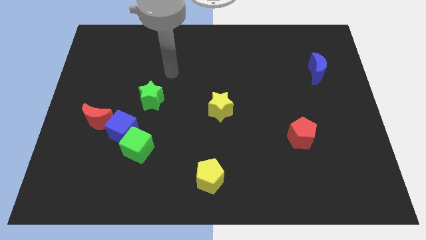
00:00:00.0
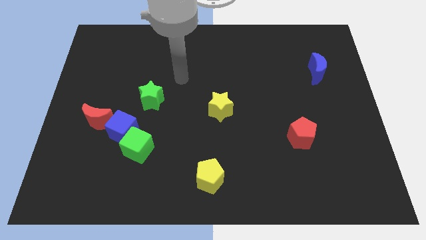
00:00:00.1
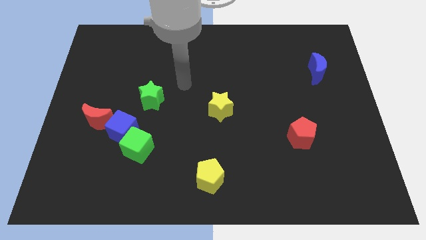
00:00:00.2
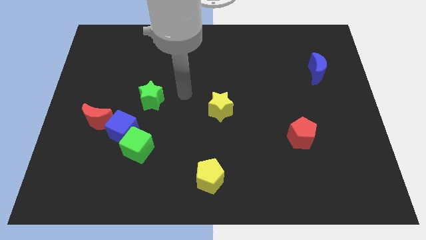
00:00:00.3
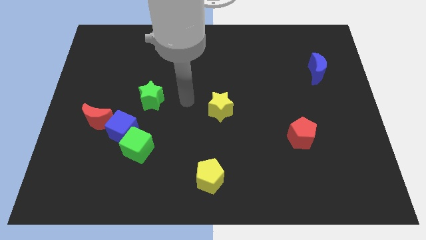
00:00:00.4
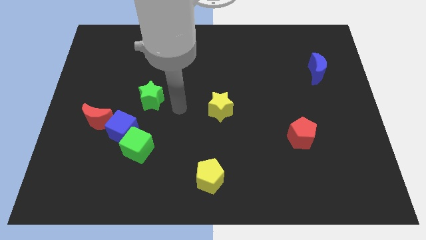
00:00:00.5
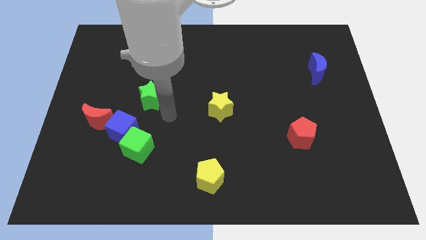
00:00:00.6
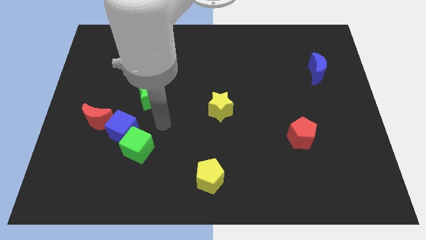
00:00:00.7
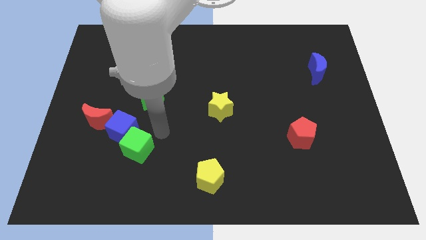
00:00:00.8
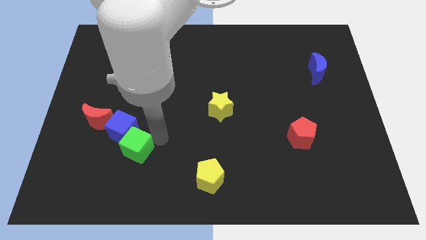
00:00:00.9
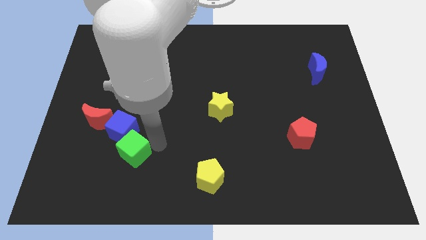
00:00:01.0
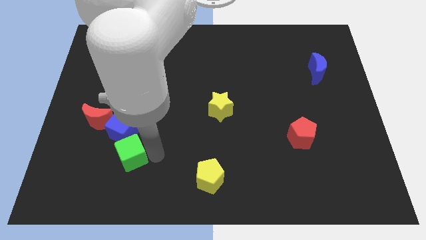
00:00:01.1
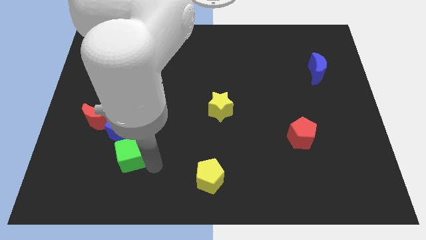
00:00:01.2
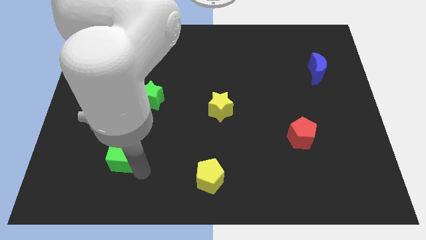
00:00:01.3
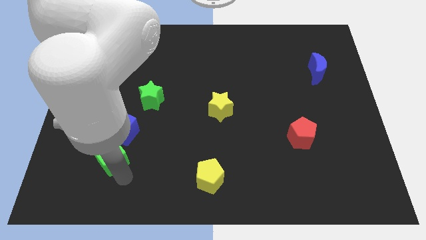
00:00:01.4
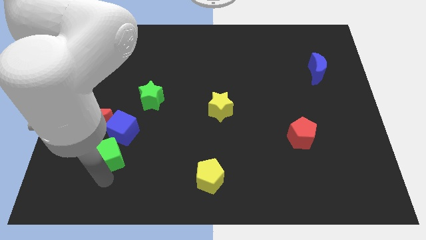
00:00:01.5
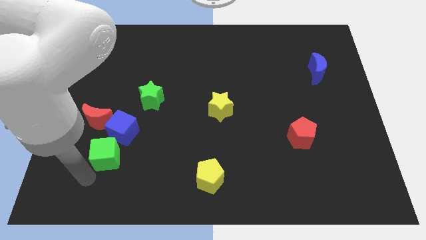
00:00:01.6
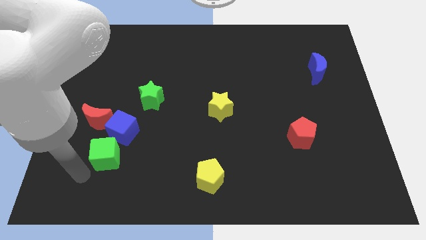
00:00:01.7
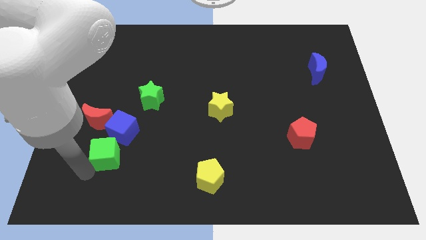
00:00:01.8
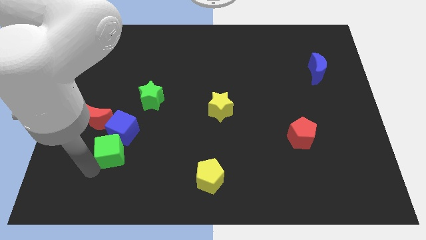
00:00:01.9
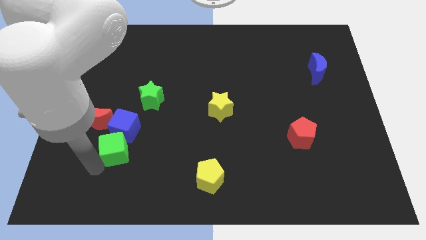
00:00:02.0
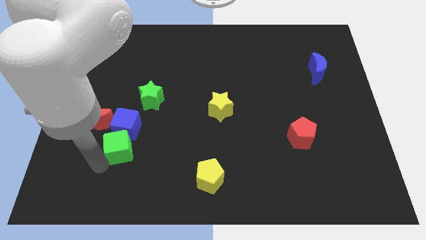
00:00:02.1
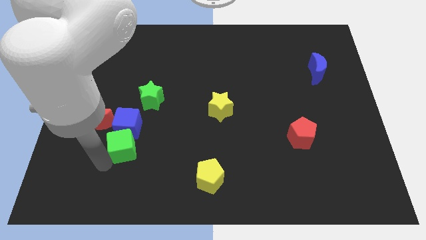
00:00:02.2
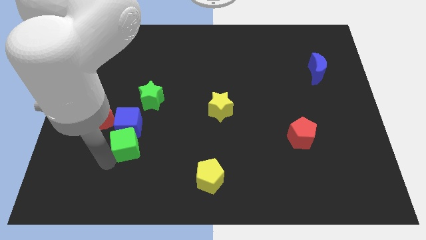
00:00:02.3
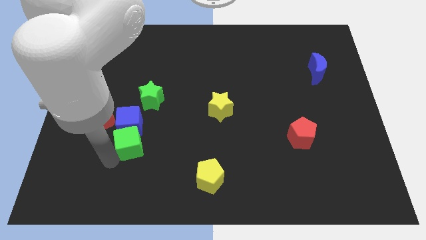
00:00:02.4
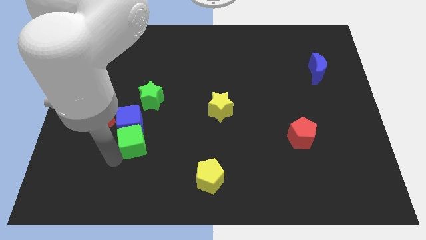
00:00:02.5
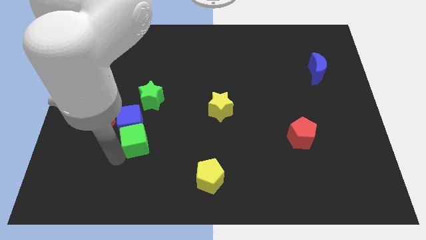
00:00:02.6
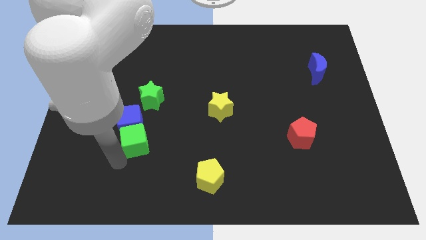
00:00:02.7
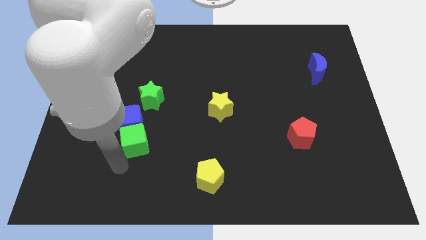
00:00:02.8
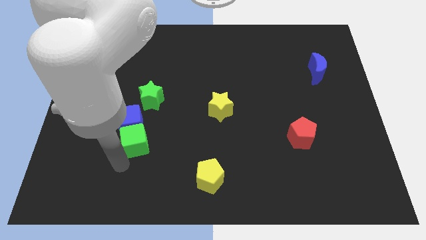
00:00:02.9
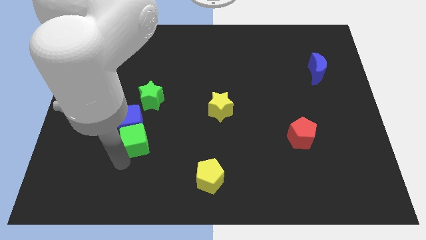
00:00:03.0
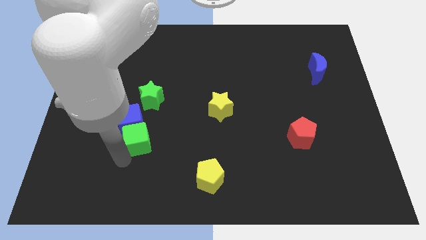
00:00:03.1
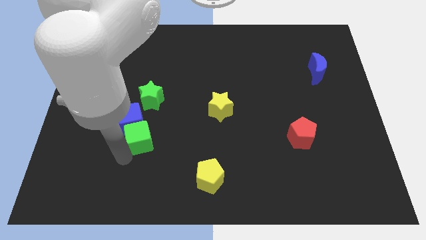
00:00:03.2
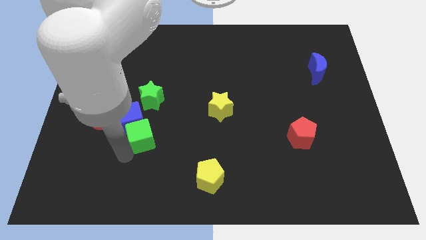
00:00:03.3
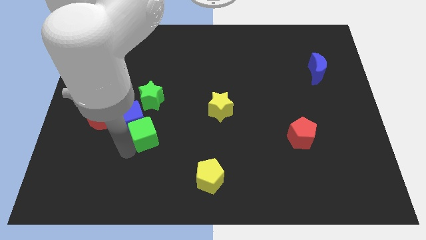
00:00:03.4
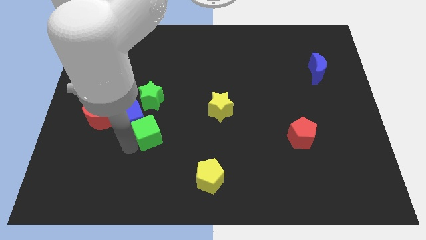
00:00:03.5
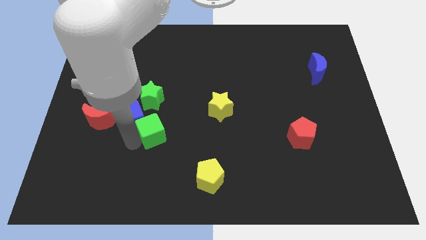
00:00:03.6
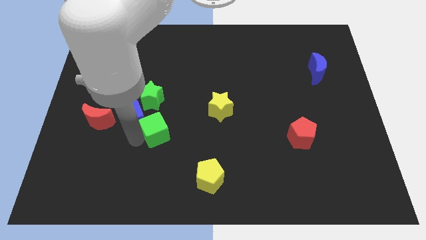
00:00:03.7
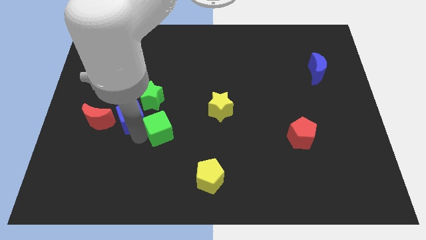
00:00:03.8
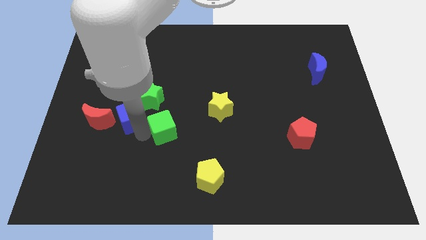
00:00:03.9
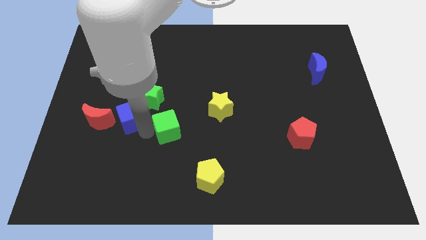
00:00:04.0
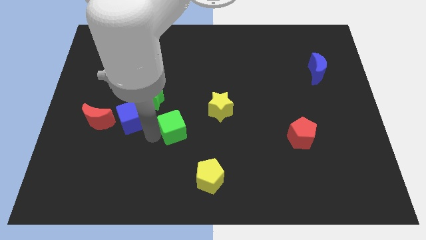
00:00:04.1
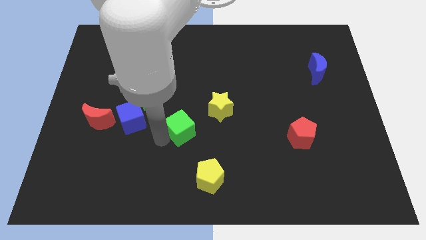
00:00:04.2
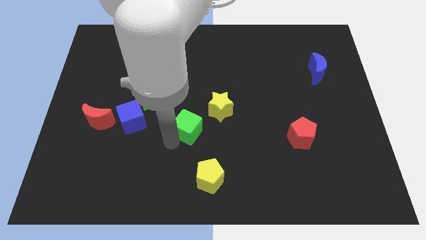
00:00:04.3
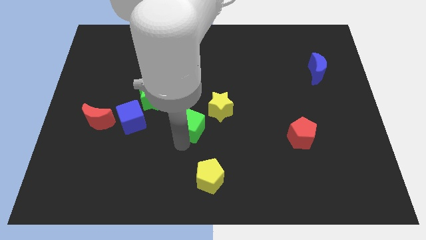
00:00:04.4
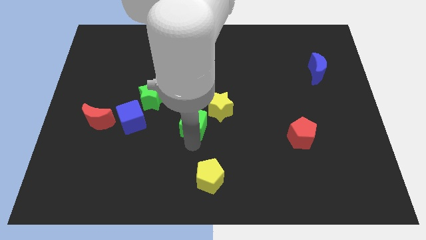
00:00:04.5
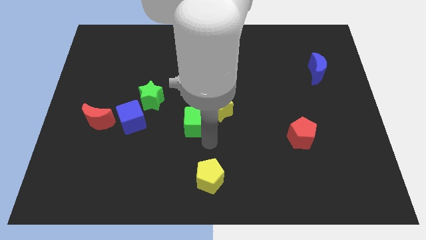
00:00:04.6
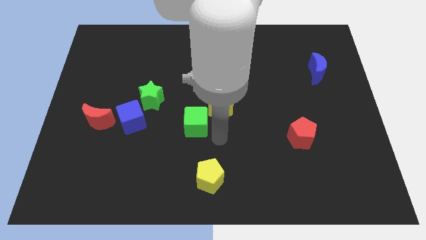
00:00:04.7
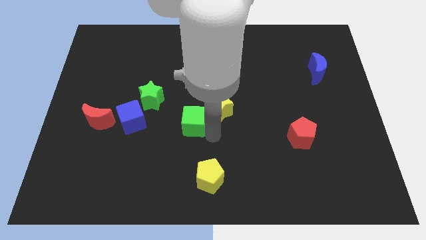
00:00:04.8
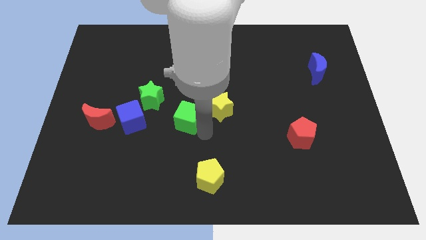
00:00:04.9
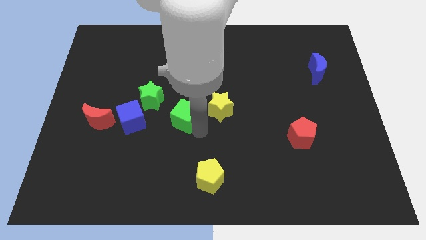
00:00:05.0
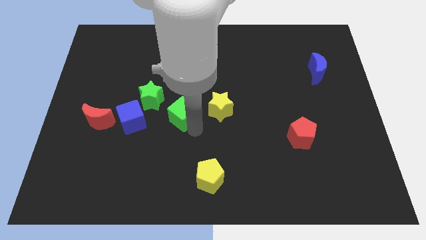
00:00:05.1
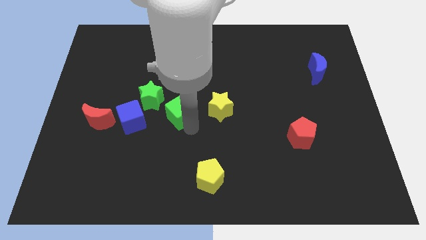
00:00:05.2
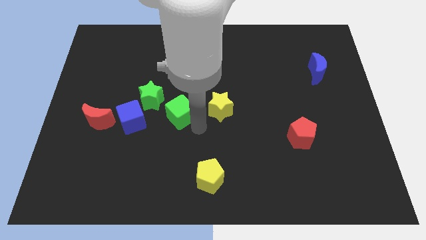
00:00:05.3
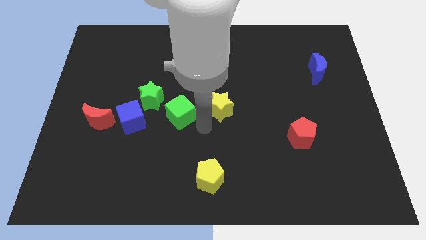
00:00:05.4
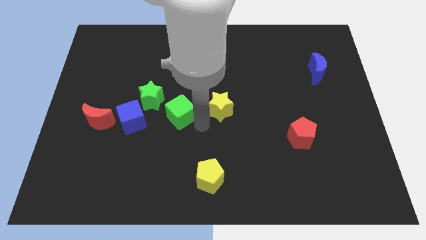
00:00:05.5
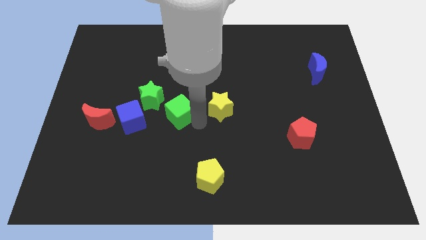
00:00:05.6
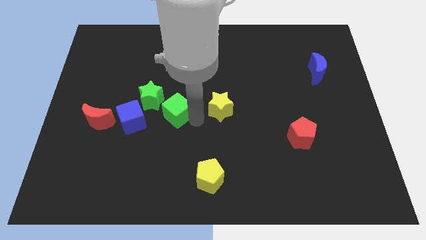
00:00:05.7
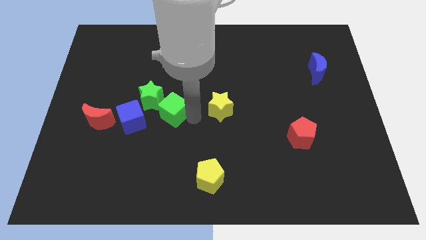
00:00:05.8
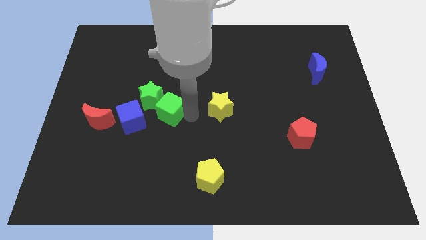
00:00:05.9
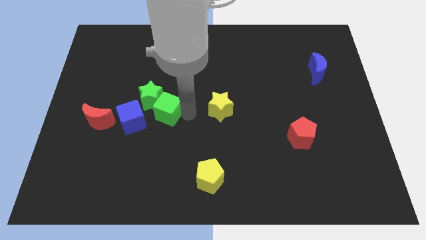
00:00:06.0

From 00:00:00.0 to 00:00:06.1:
push the green cube next to the green star

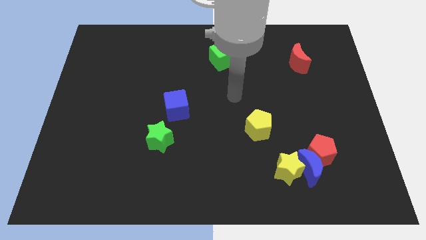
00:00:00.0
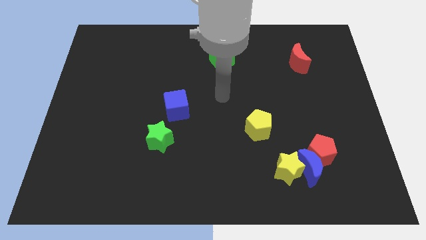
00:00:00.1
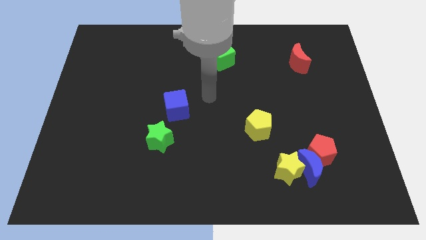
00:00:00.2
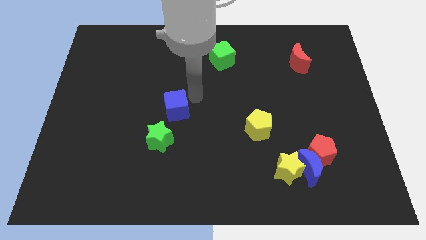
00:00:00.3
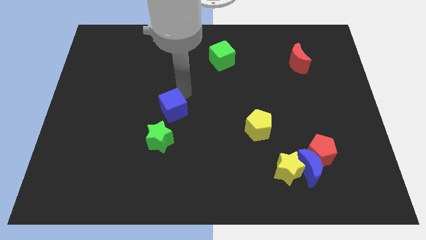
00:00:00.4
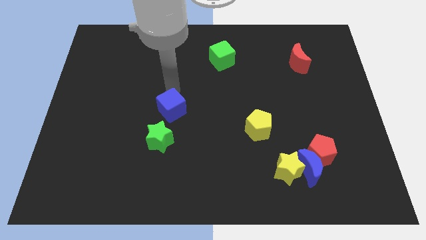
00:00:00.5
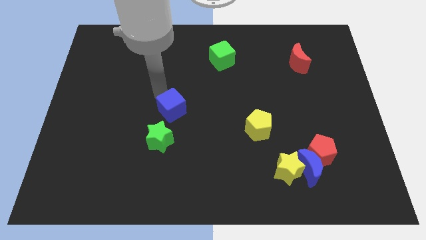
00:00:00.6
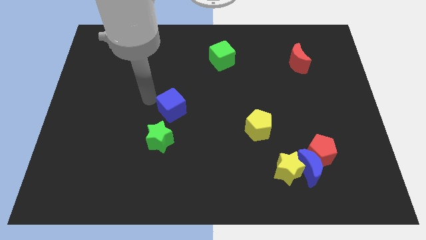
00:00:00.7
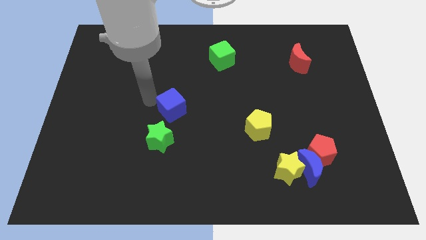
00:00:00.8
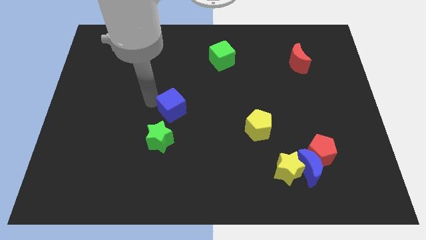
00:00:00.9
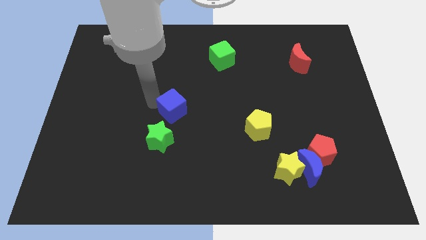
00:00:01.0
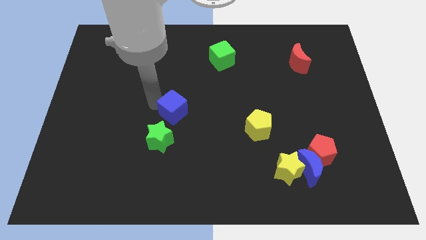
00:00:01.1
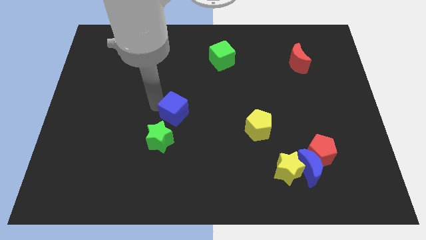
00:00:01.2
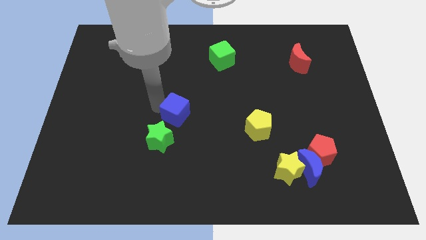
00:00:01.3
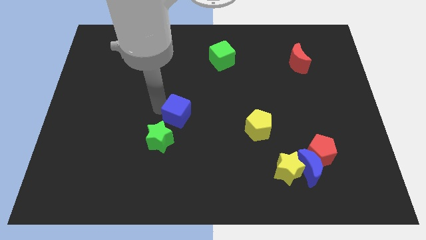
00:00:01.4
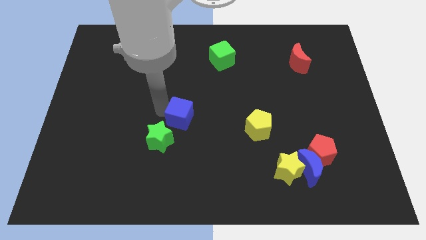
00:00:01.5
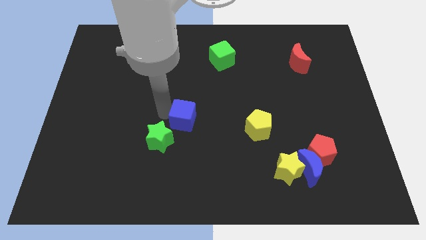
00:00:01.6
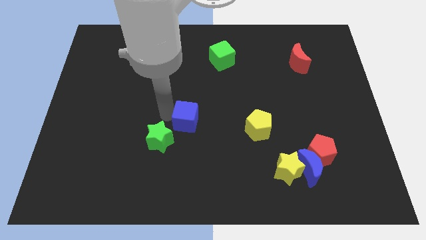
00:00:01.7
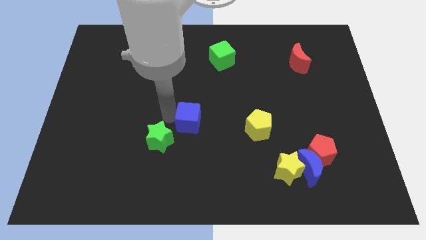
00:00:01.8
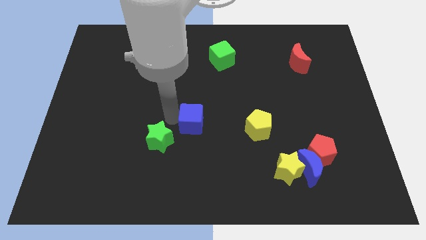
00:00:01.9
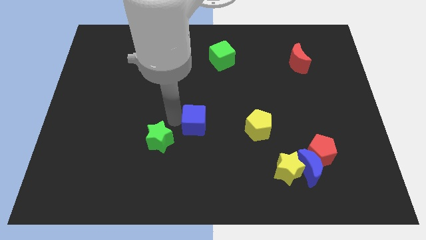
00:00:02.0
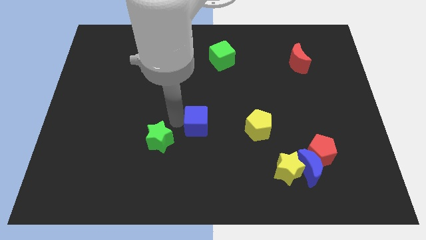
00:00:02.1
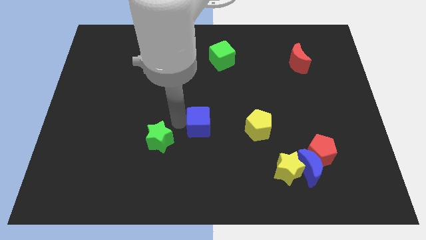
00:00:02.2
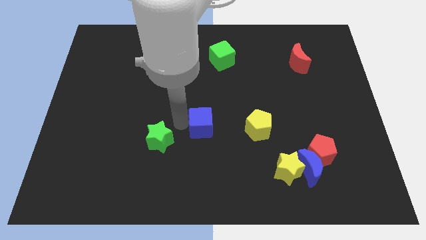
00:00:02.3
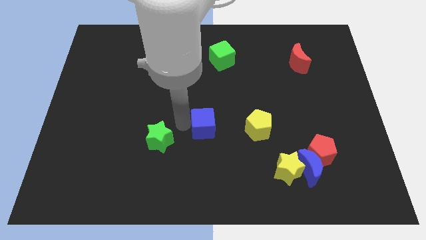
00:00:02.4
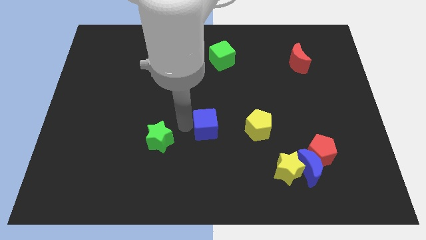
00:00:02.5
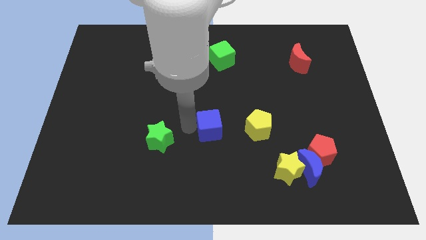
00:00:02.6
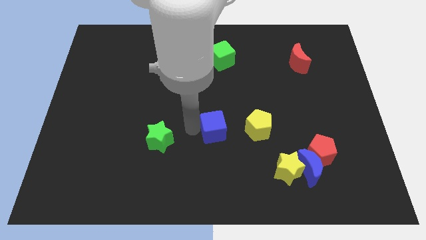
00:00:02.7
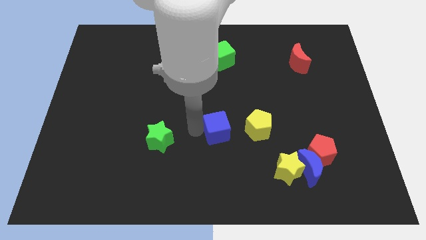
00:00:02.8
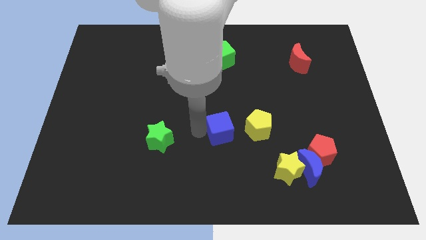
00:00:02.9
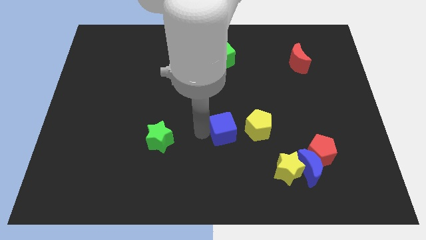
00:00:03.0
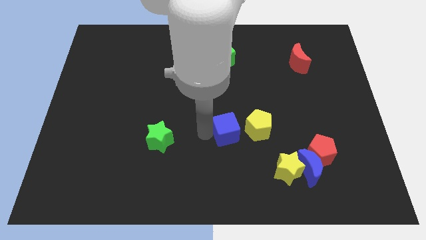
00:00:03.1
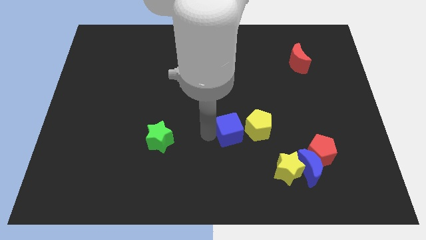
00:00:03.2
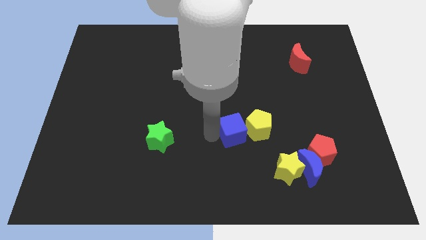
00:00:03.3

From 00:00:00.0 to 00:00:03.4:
push the blue cube to the yellow pentagon
